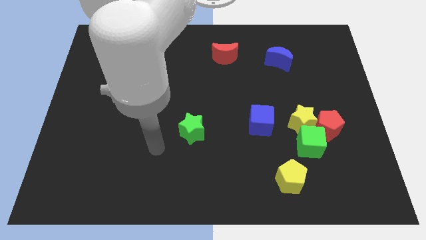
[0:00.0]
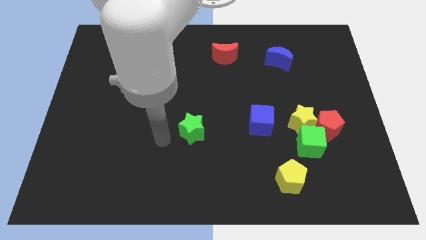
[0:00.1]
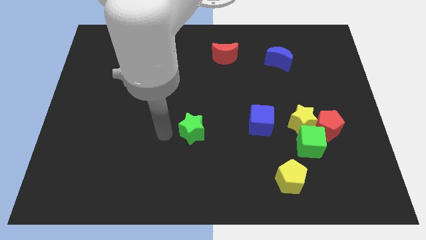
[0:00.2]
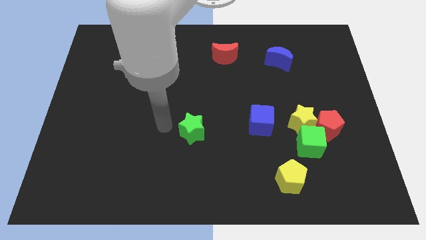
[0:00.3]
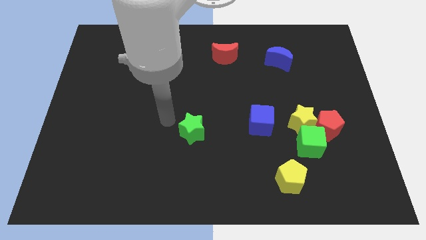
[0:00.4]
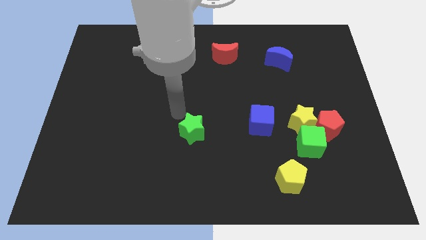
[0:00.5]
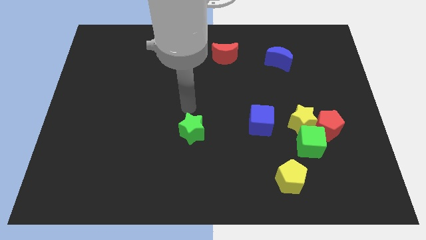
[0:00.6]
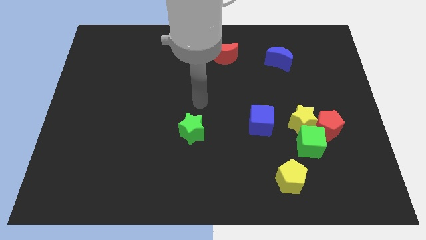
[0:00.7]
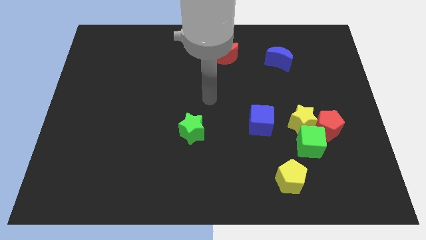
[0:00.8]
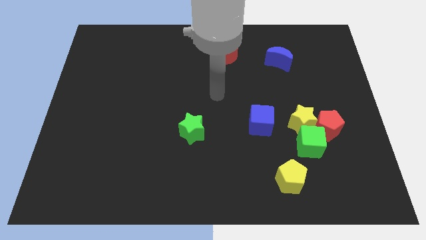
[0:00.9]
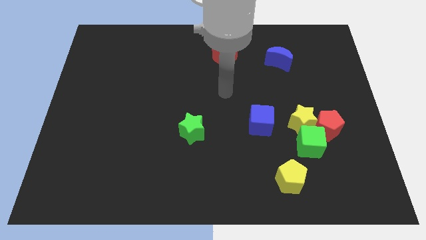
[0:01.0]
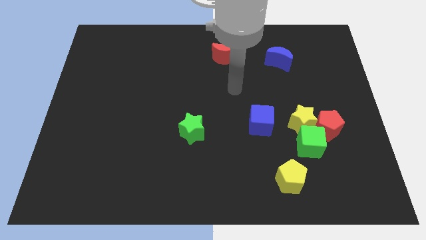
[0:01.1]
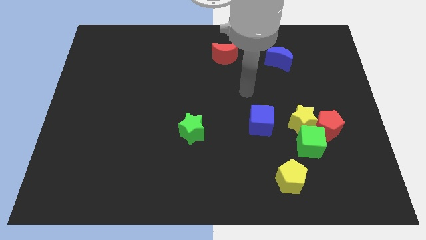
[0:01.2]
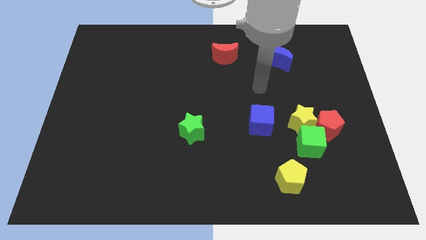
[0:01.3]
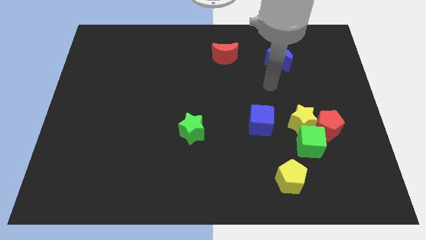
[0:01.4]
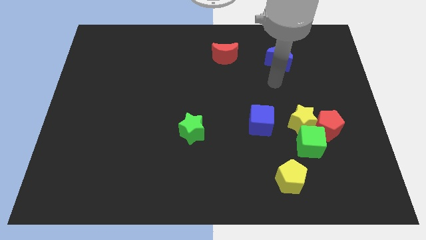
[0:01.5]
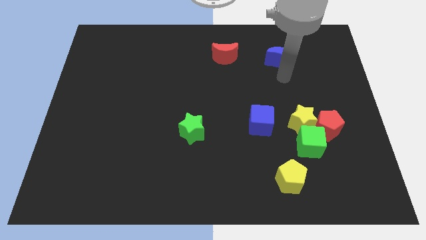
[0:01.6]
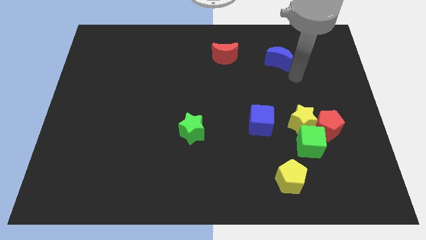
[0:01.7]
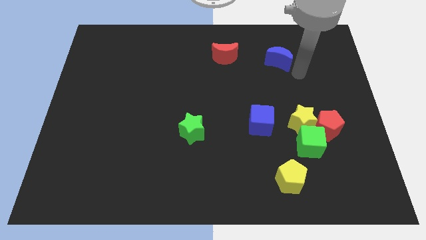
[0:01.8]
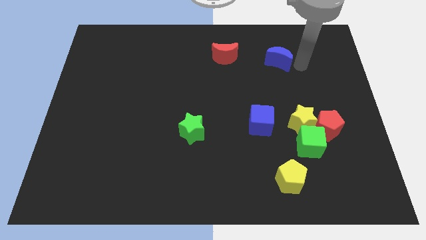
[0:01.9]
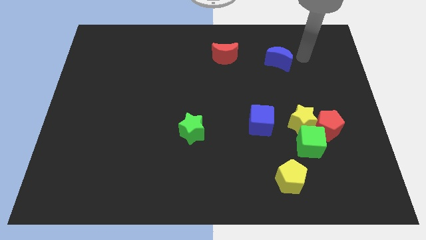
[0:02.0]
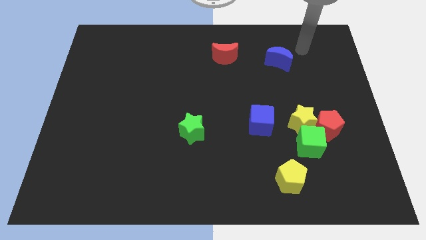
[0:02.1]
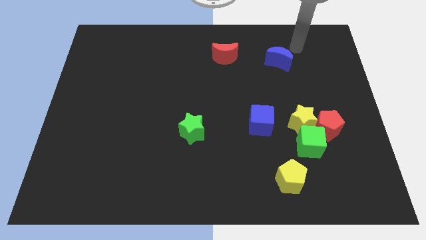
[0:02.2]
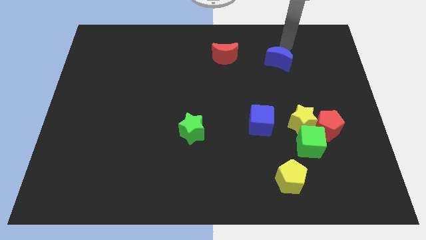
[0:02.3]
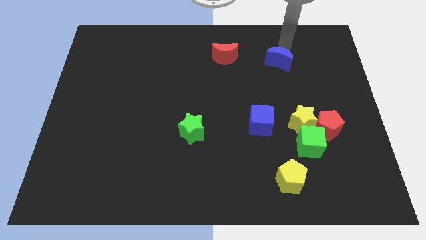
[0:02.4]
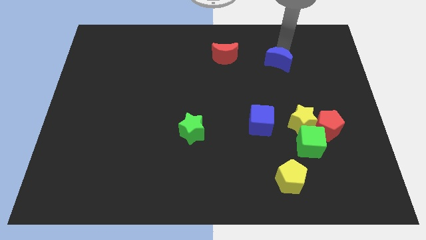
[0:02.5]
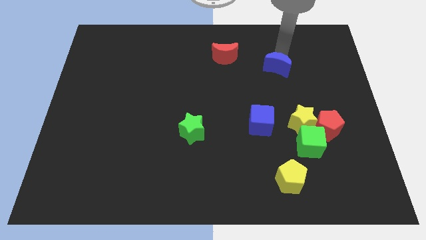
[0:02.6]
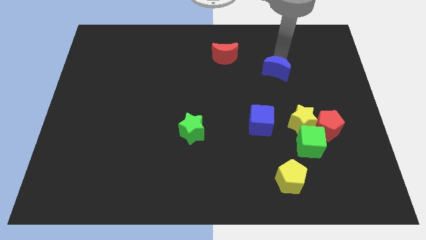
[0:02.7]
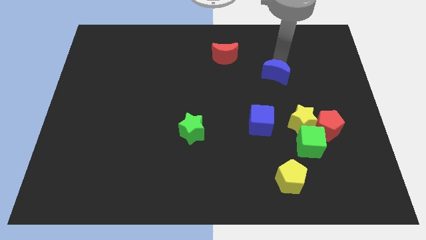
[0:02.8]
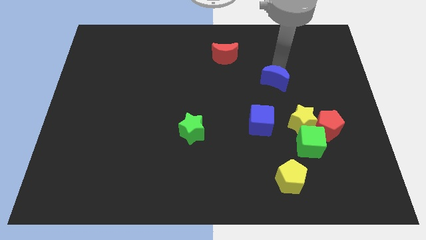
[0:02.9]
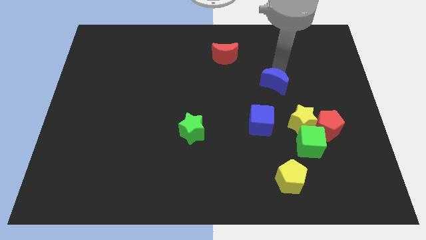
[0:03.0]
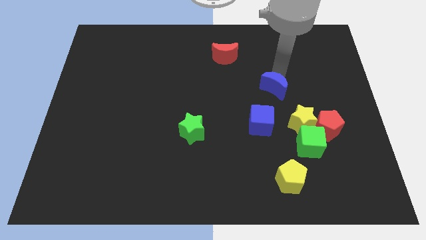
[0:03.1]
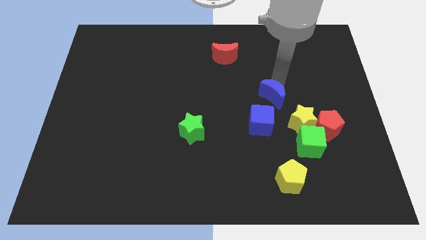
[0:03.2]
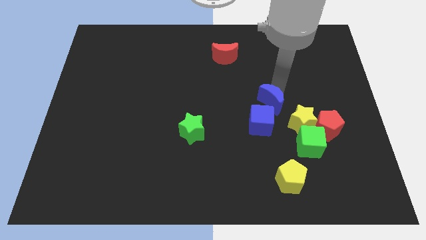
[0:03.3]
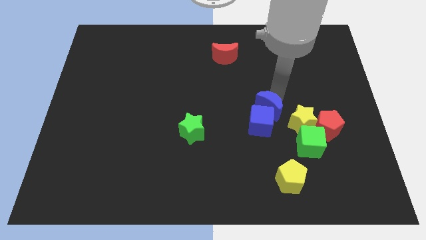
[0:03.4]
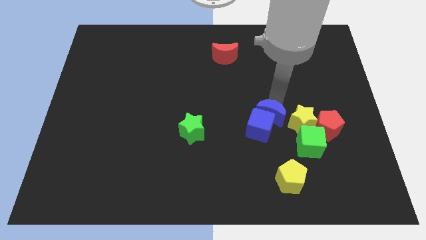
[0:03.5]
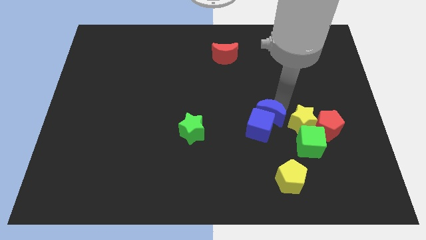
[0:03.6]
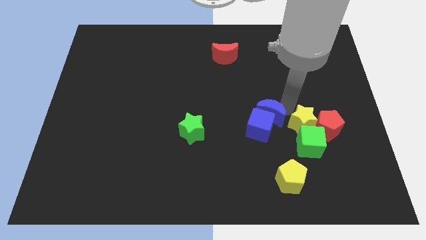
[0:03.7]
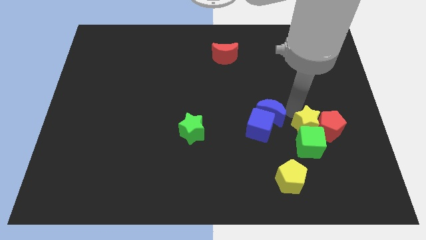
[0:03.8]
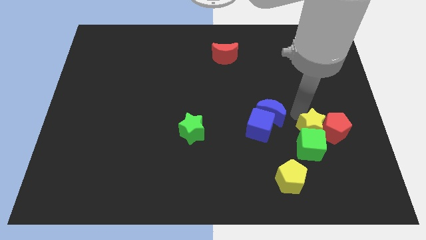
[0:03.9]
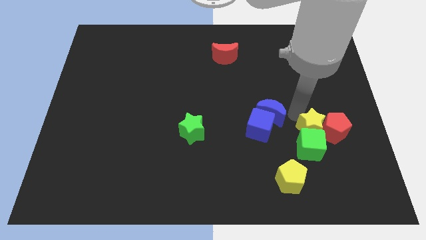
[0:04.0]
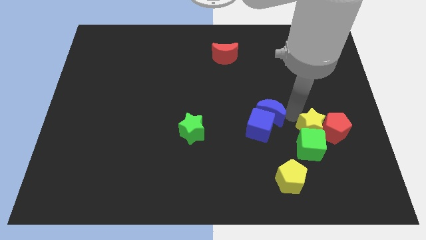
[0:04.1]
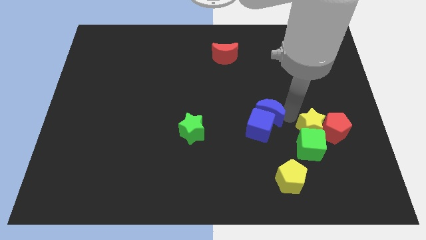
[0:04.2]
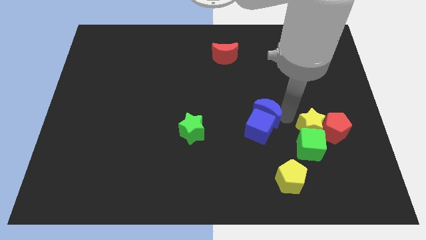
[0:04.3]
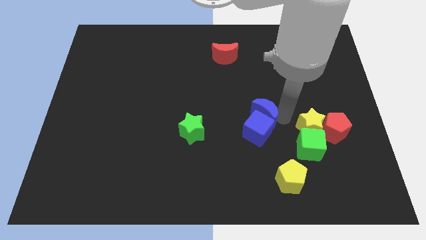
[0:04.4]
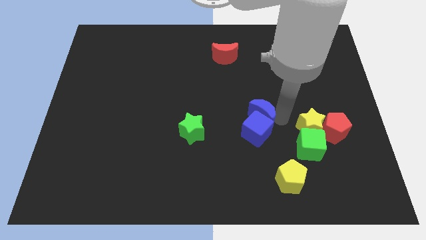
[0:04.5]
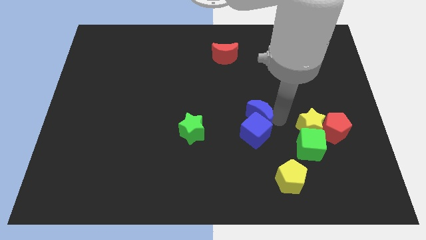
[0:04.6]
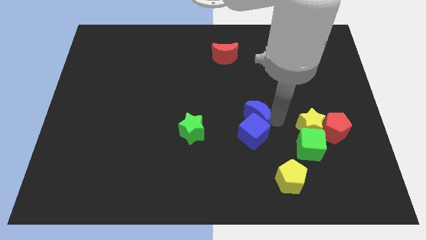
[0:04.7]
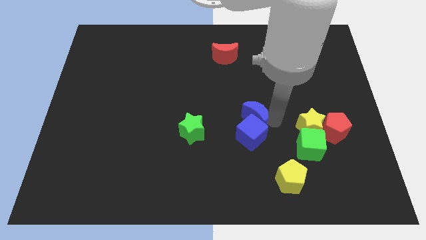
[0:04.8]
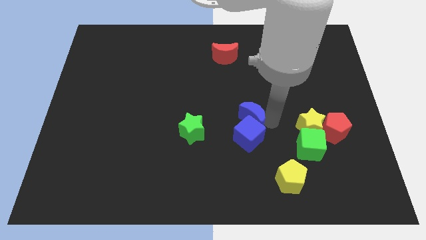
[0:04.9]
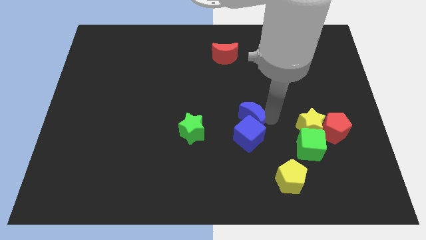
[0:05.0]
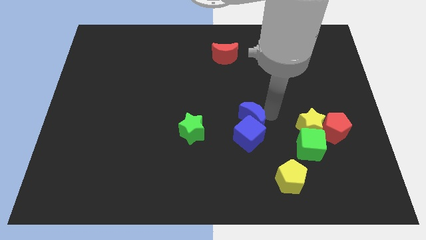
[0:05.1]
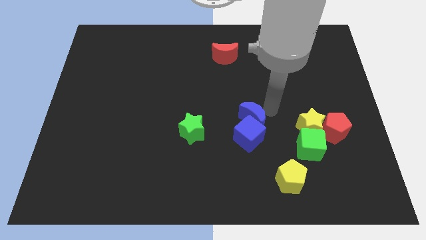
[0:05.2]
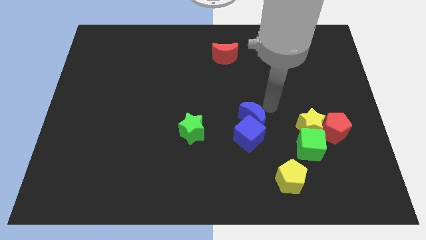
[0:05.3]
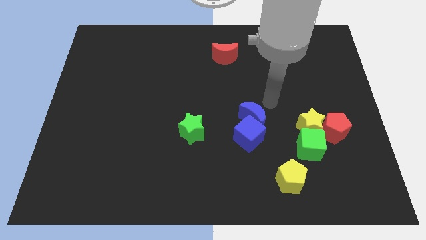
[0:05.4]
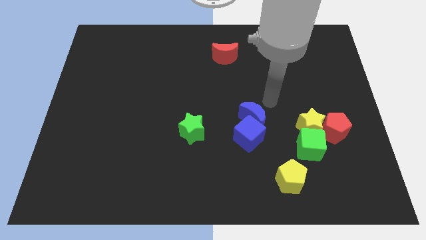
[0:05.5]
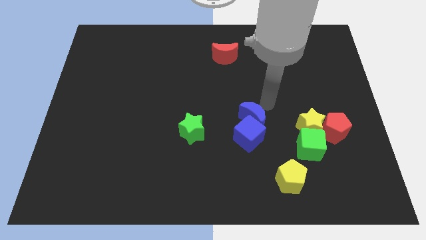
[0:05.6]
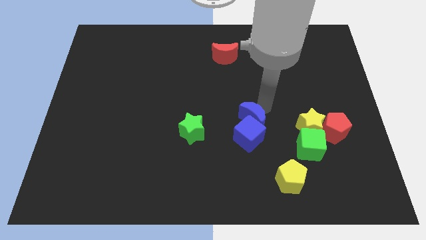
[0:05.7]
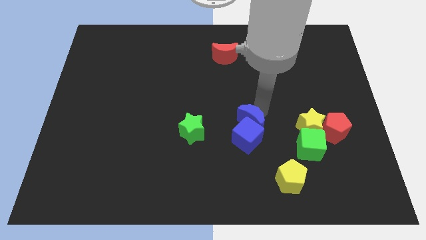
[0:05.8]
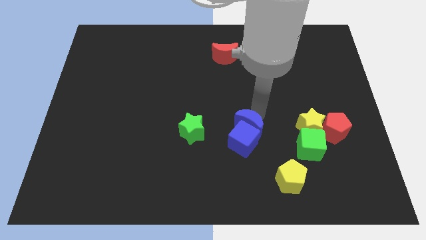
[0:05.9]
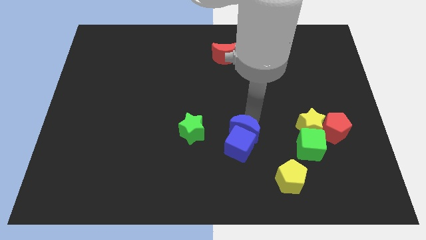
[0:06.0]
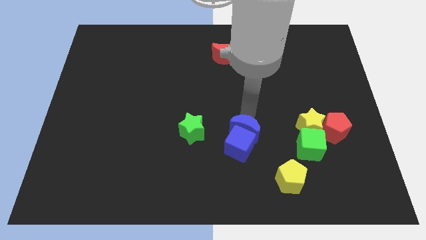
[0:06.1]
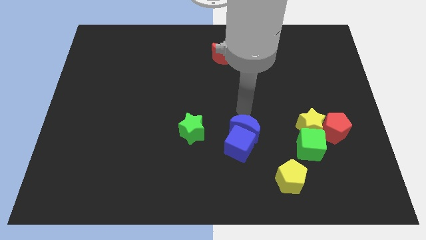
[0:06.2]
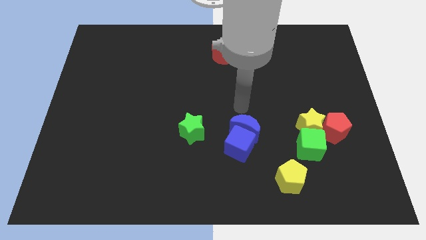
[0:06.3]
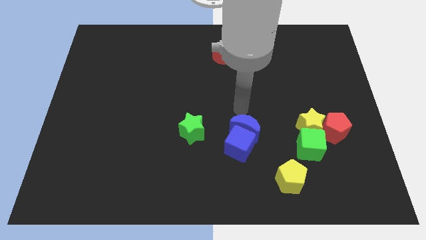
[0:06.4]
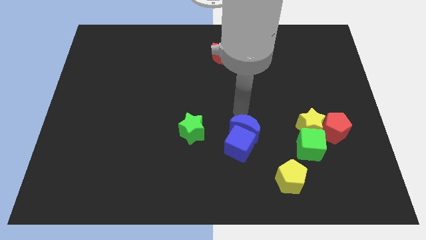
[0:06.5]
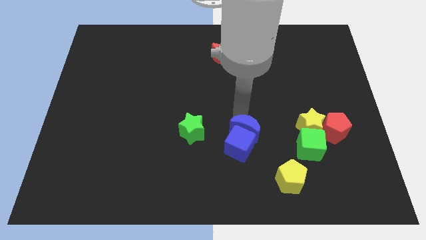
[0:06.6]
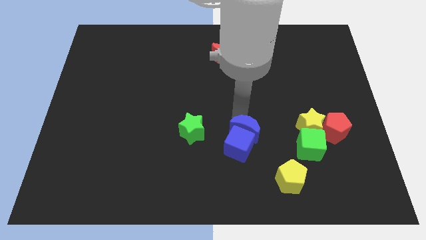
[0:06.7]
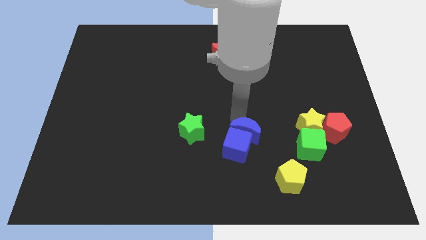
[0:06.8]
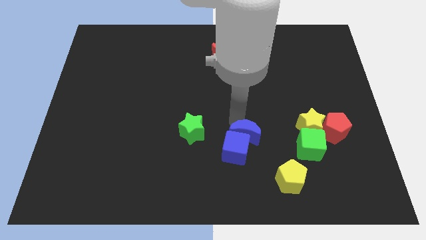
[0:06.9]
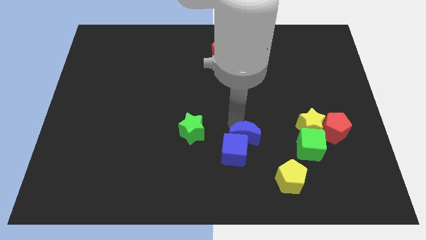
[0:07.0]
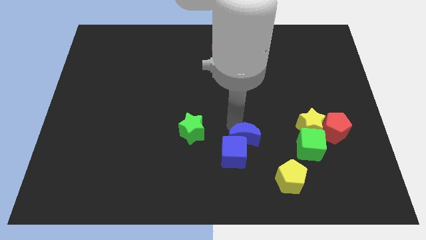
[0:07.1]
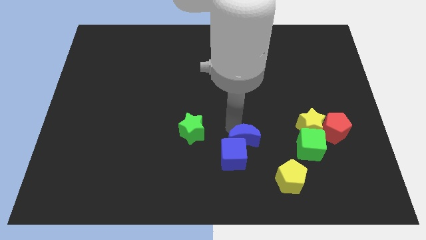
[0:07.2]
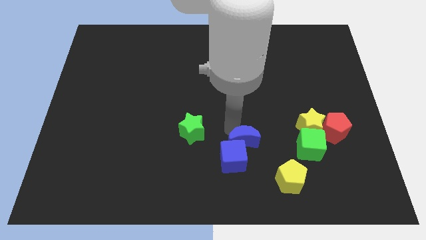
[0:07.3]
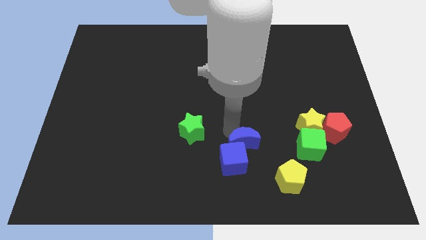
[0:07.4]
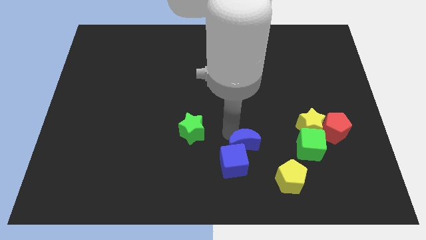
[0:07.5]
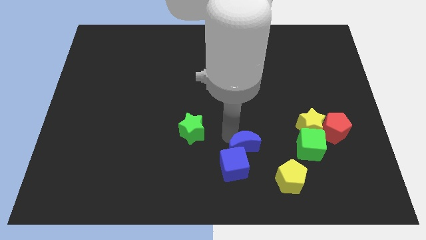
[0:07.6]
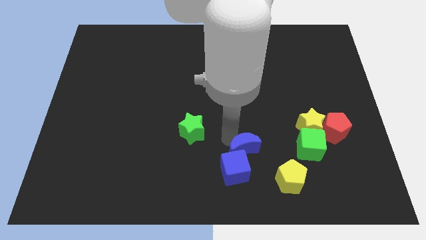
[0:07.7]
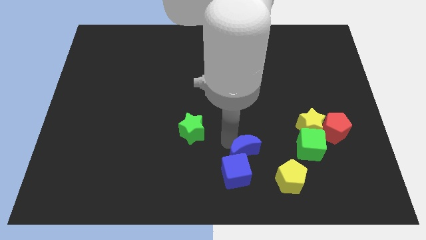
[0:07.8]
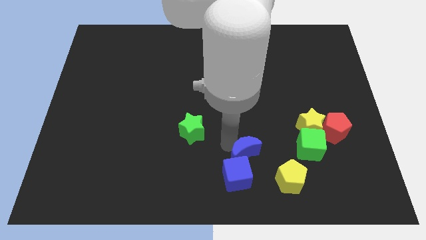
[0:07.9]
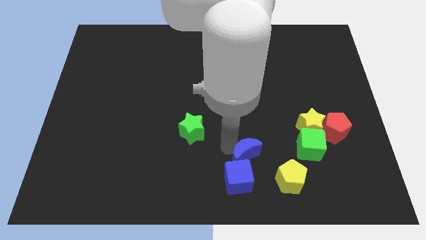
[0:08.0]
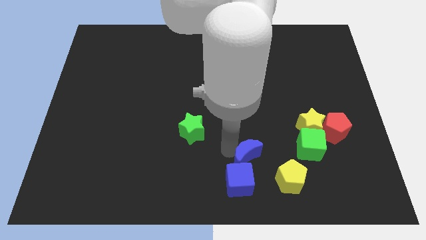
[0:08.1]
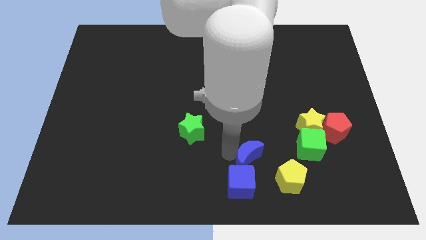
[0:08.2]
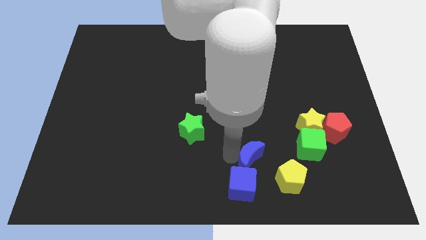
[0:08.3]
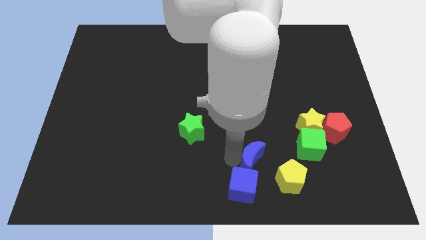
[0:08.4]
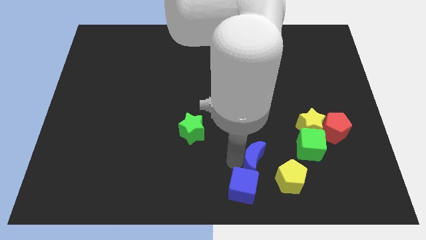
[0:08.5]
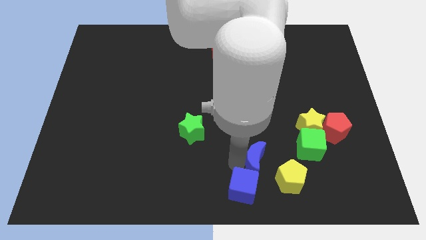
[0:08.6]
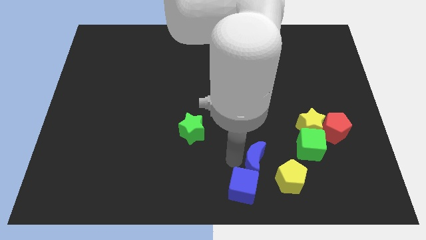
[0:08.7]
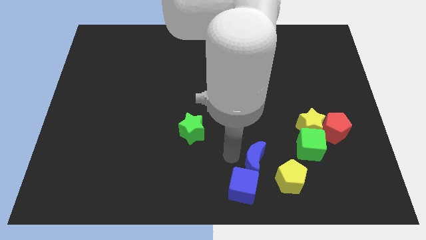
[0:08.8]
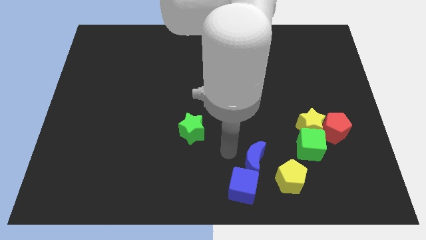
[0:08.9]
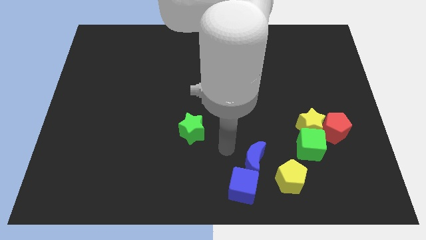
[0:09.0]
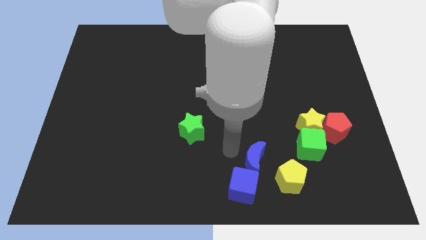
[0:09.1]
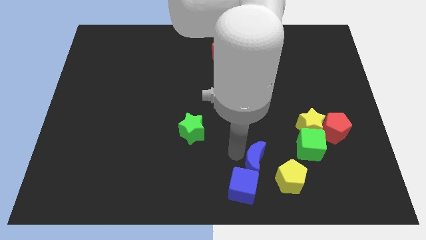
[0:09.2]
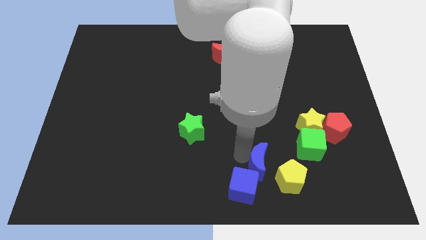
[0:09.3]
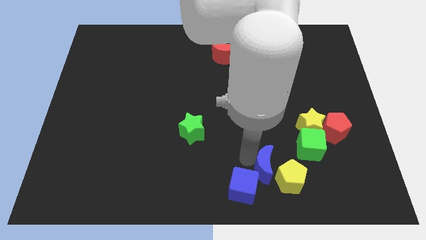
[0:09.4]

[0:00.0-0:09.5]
move the blue moon to the yellow pentagon
